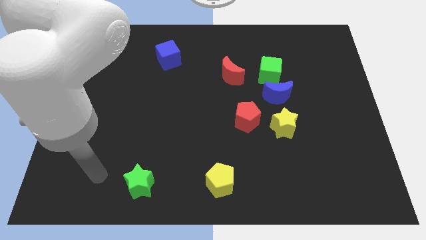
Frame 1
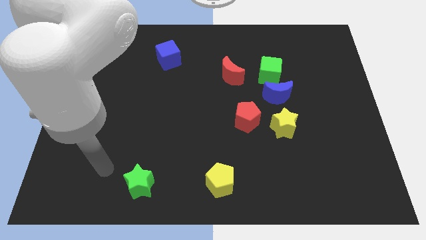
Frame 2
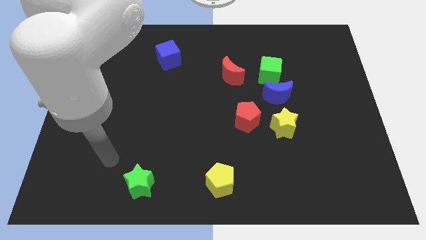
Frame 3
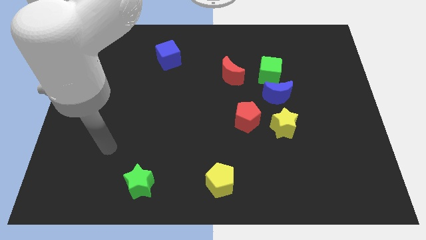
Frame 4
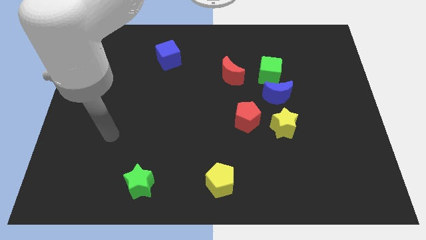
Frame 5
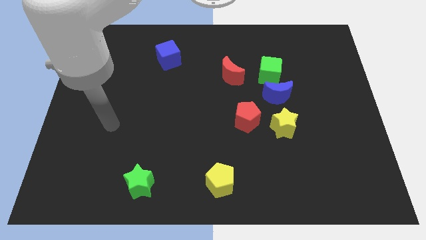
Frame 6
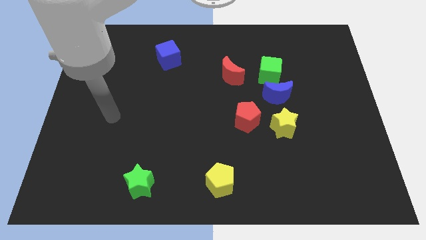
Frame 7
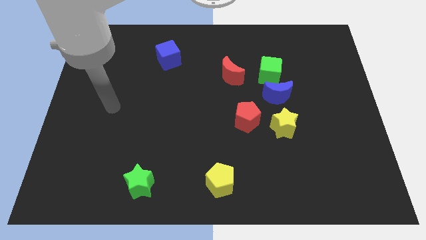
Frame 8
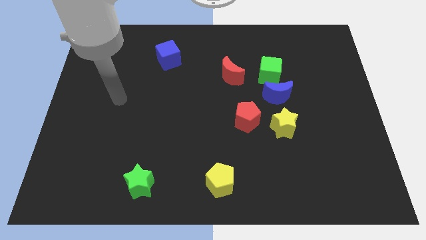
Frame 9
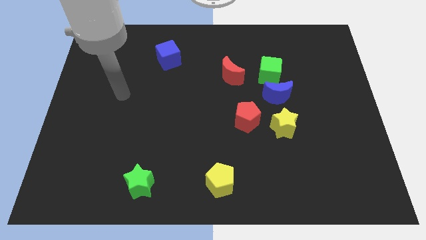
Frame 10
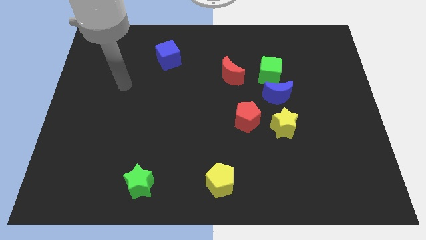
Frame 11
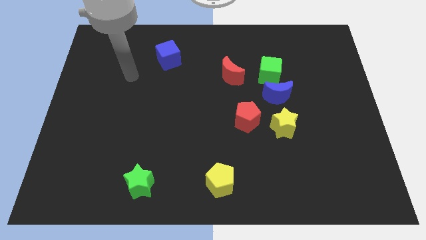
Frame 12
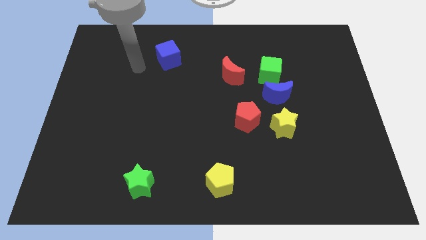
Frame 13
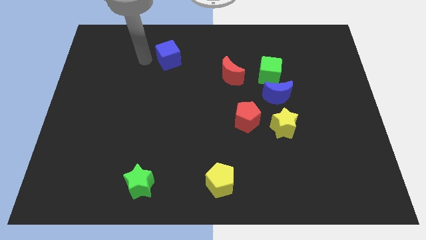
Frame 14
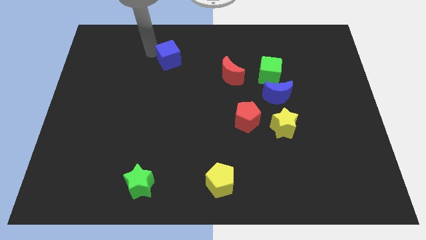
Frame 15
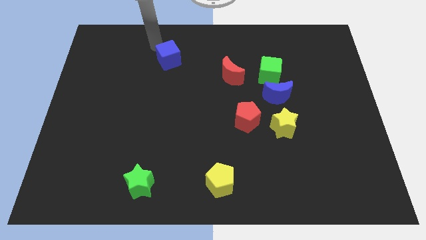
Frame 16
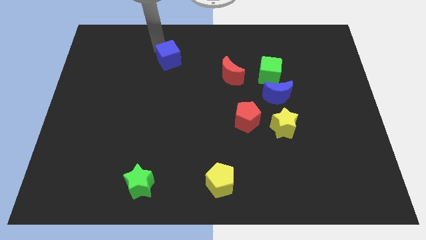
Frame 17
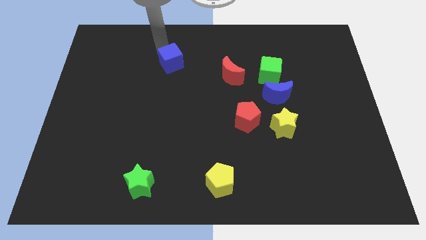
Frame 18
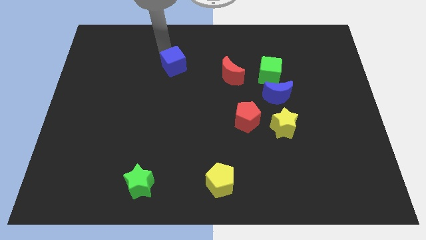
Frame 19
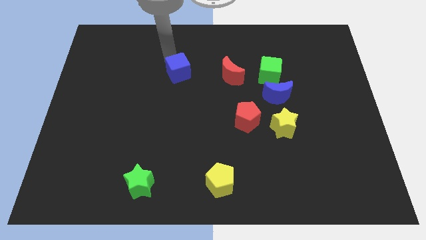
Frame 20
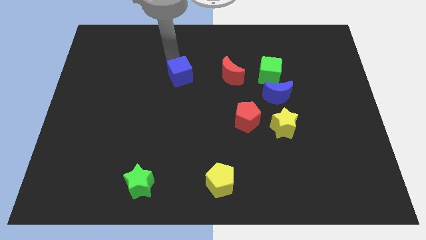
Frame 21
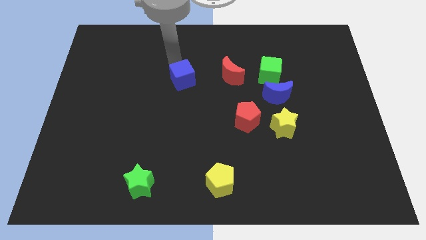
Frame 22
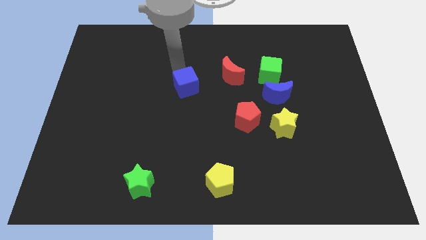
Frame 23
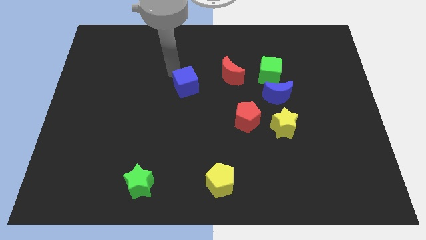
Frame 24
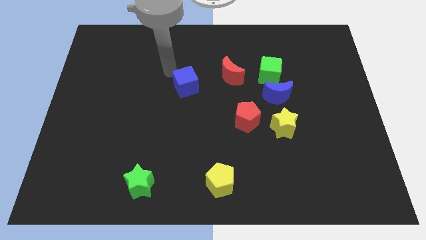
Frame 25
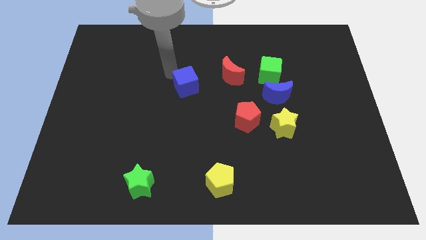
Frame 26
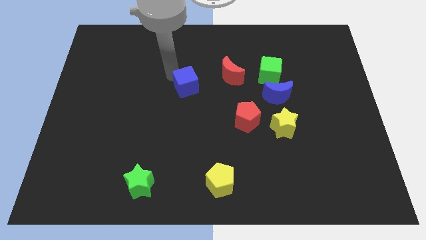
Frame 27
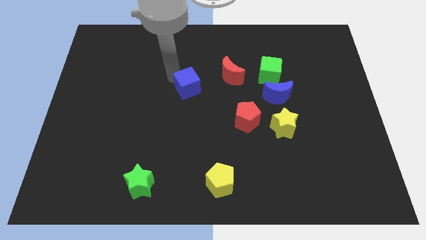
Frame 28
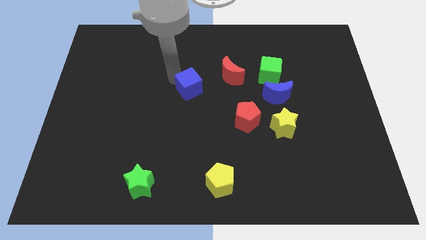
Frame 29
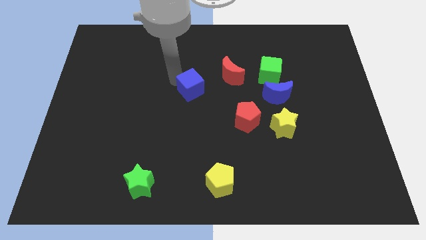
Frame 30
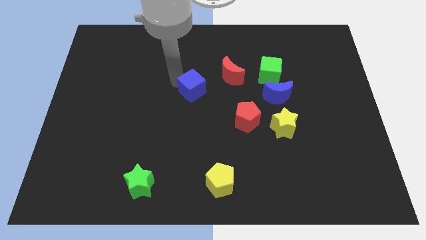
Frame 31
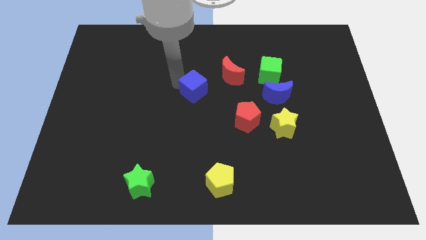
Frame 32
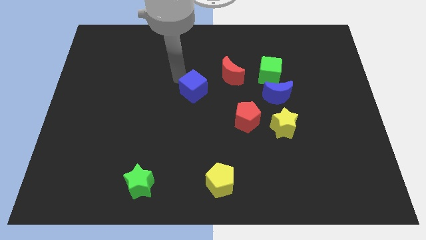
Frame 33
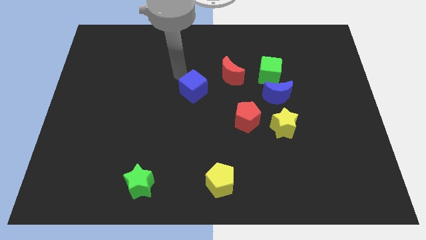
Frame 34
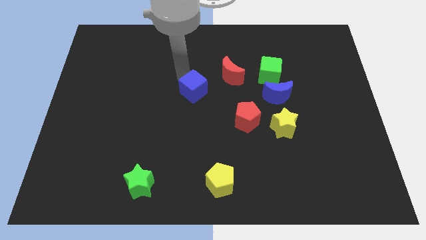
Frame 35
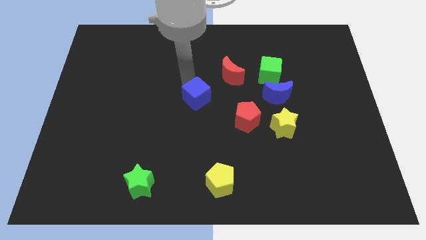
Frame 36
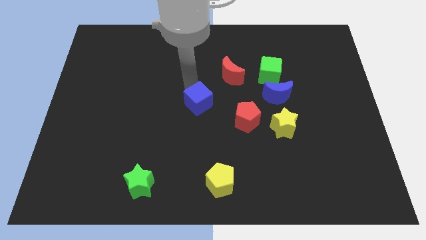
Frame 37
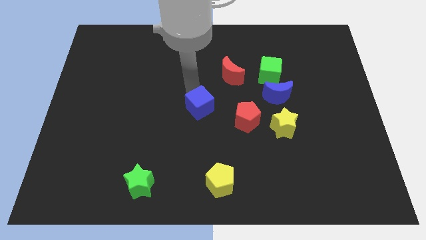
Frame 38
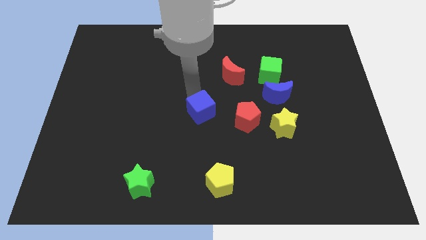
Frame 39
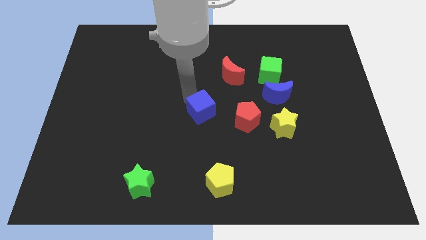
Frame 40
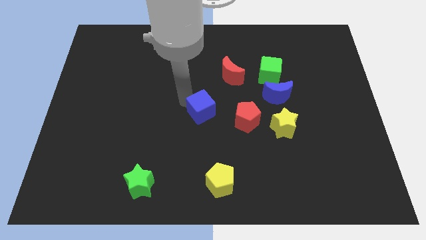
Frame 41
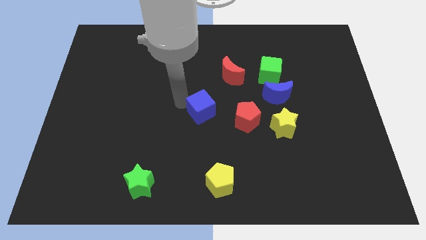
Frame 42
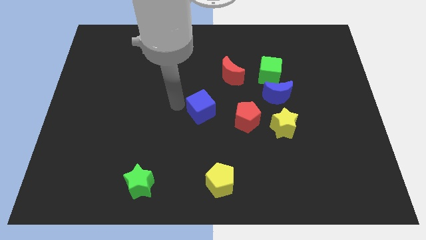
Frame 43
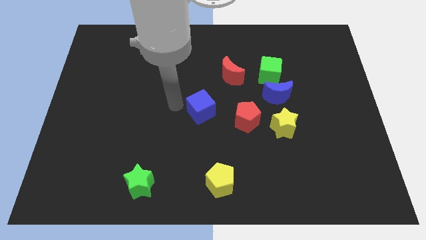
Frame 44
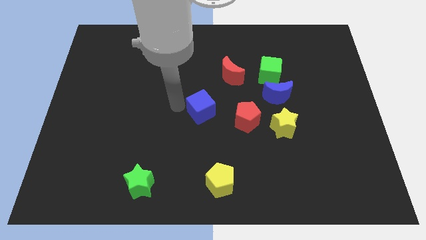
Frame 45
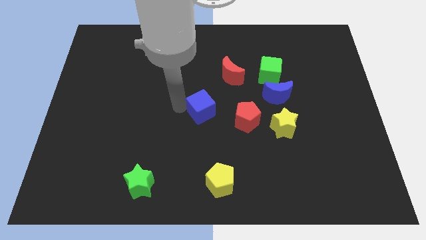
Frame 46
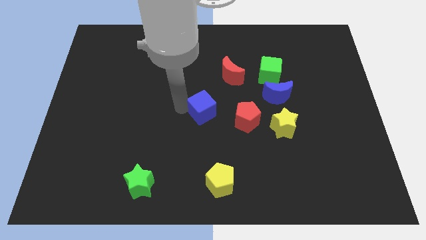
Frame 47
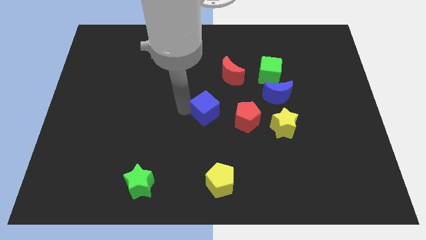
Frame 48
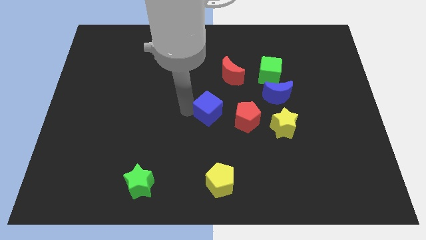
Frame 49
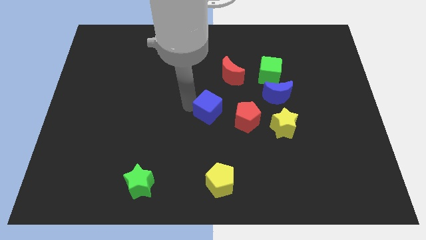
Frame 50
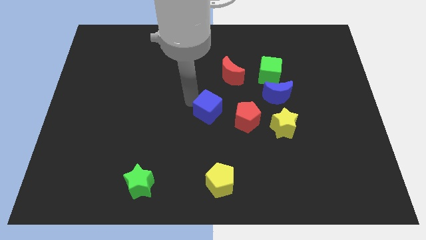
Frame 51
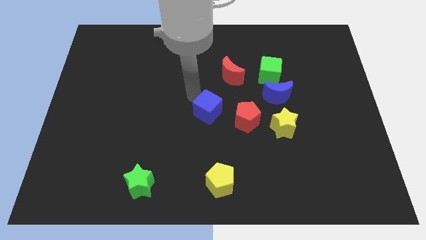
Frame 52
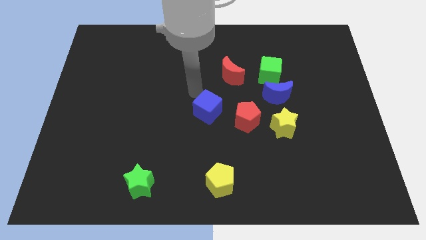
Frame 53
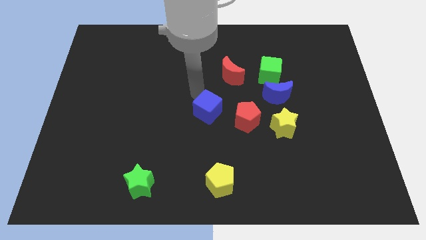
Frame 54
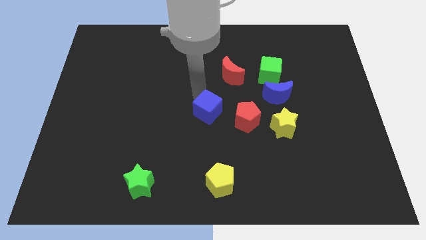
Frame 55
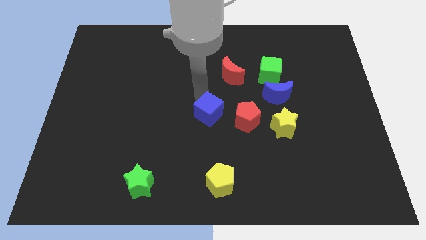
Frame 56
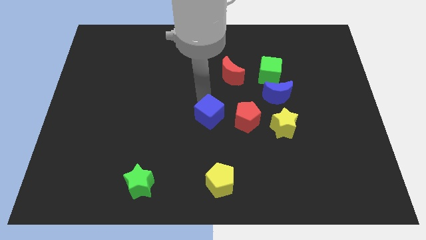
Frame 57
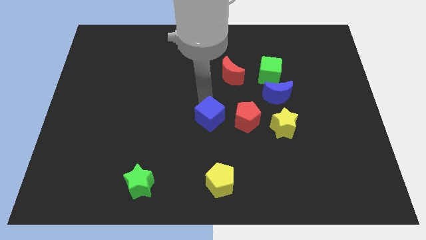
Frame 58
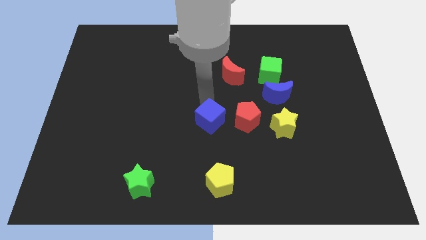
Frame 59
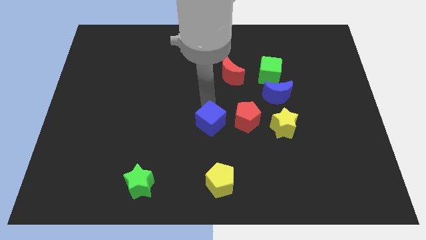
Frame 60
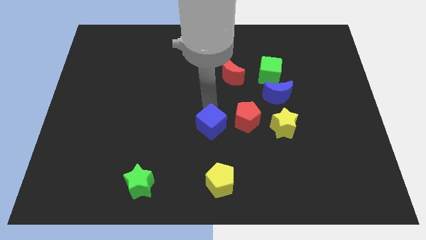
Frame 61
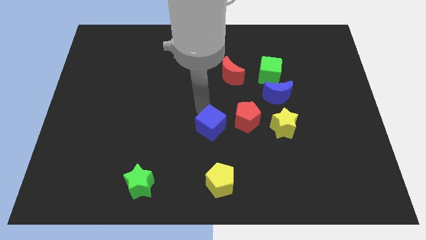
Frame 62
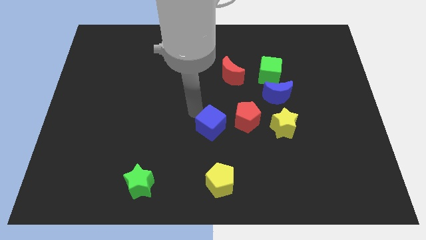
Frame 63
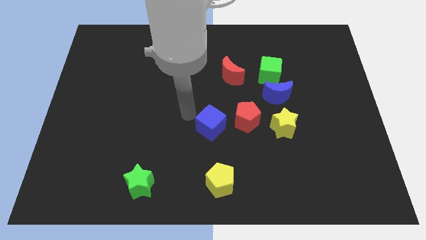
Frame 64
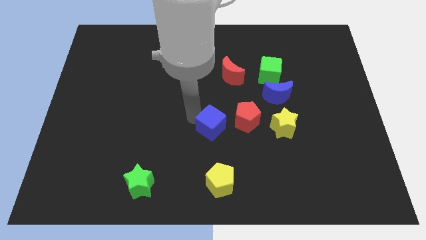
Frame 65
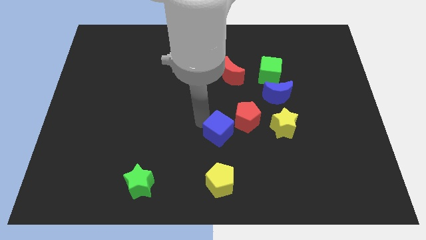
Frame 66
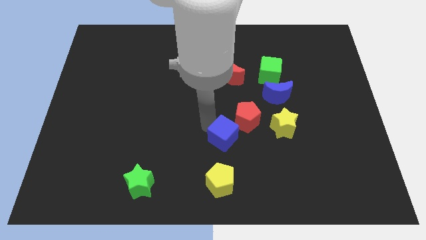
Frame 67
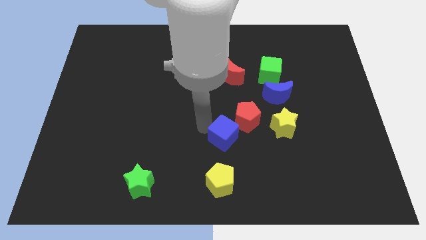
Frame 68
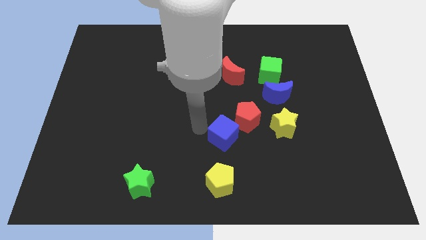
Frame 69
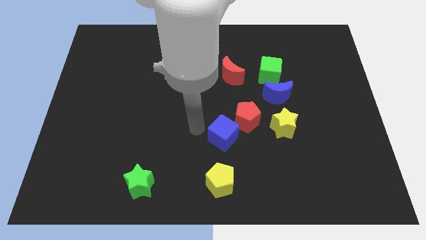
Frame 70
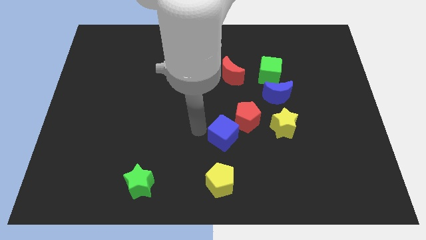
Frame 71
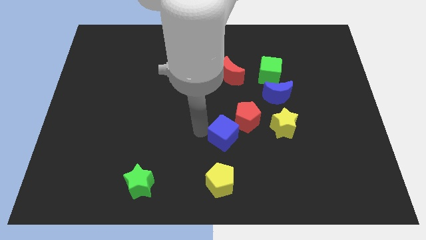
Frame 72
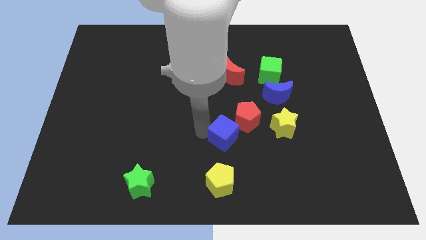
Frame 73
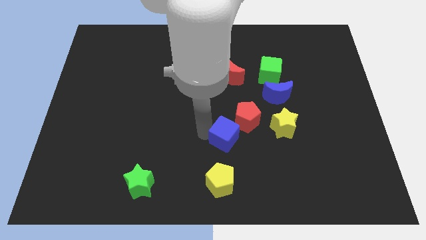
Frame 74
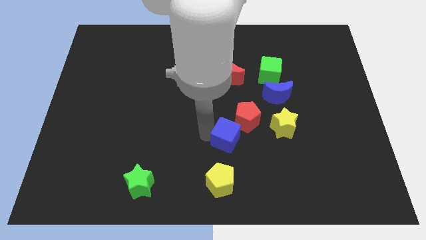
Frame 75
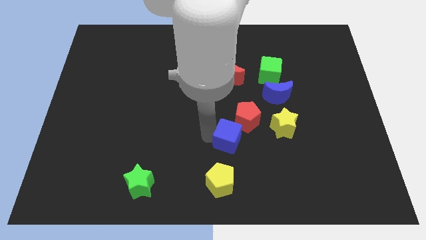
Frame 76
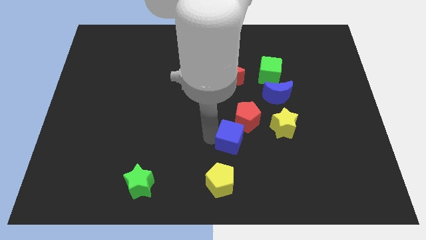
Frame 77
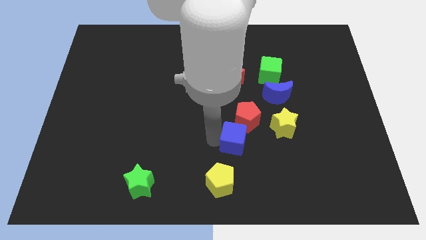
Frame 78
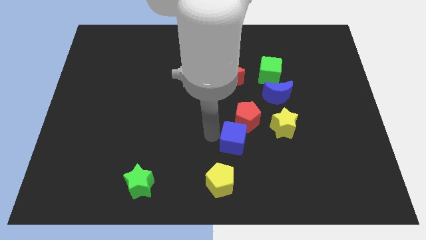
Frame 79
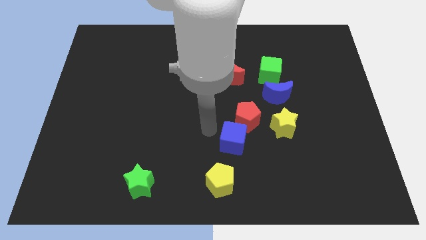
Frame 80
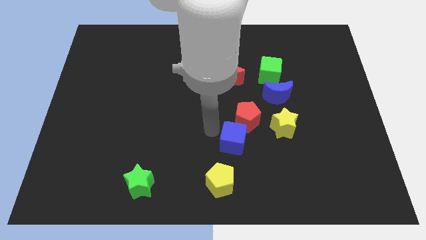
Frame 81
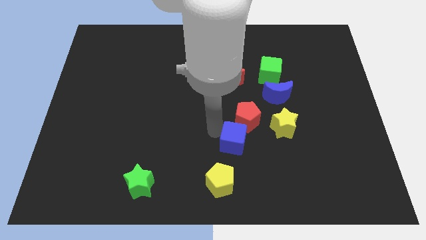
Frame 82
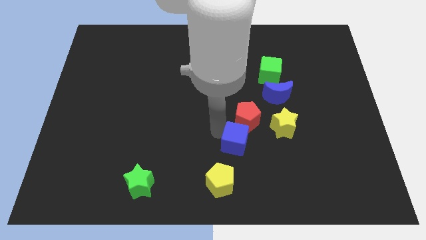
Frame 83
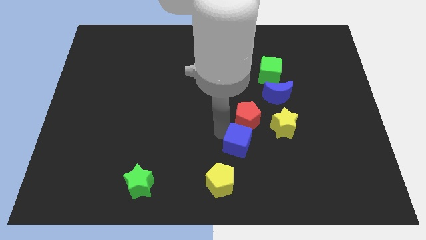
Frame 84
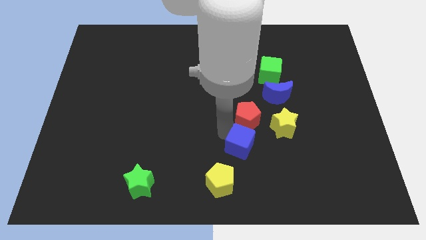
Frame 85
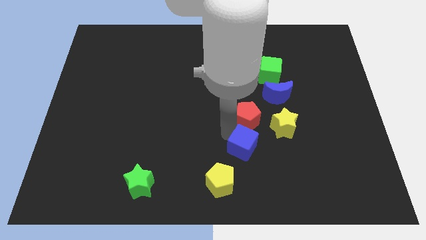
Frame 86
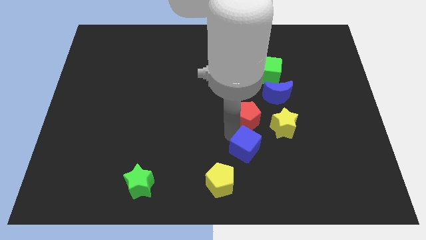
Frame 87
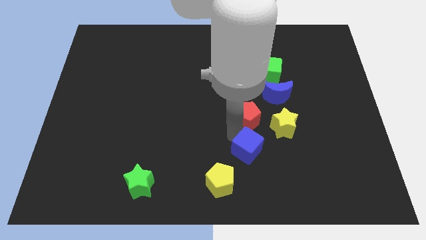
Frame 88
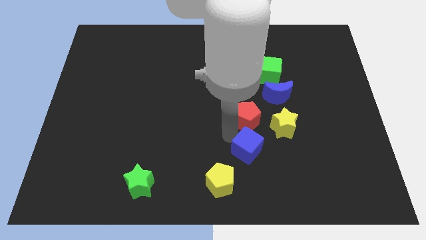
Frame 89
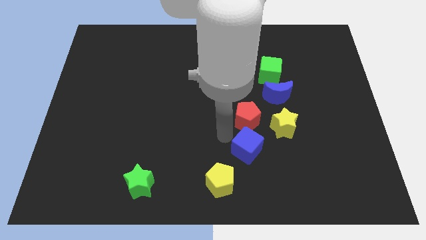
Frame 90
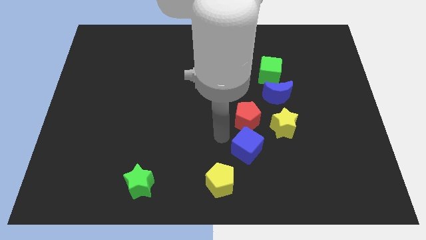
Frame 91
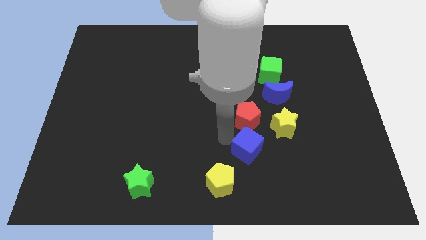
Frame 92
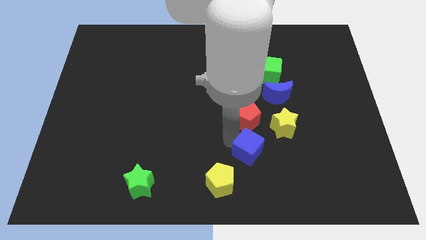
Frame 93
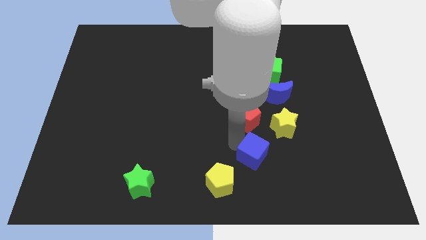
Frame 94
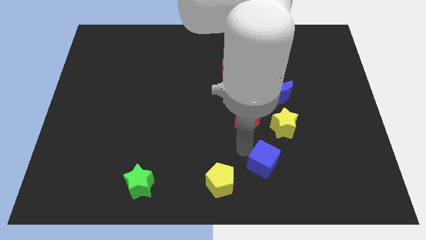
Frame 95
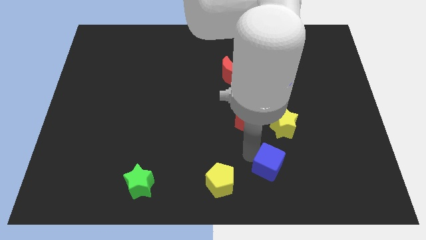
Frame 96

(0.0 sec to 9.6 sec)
put the blue cube to the bottom of the yellow star
